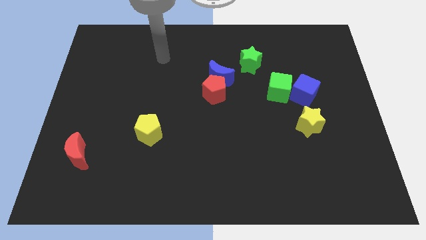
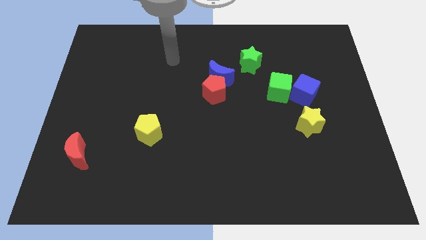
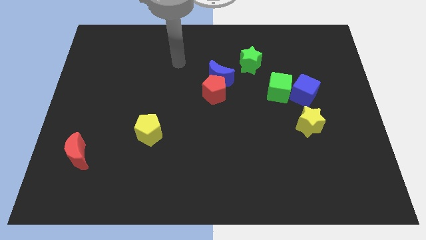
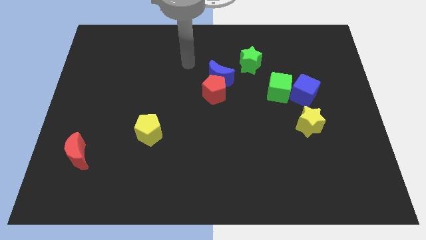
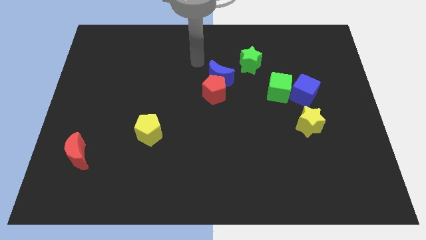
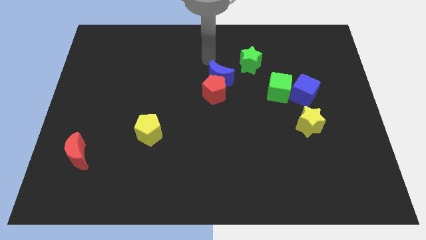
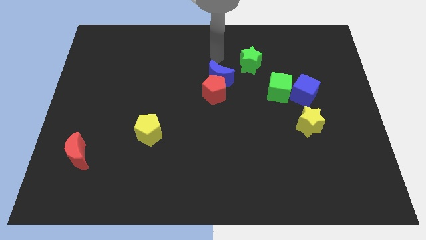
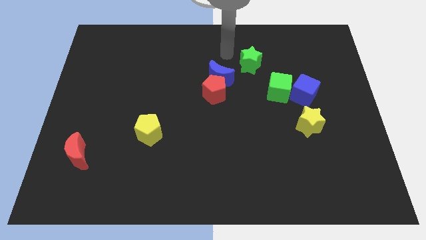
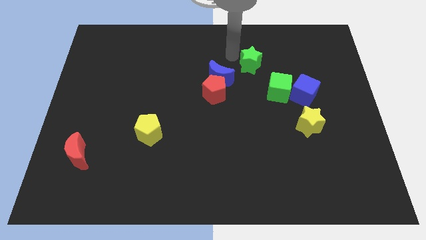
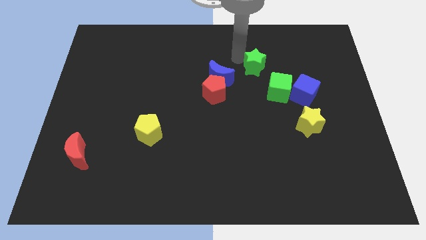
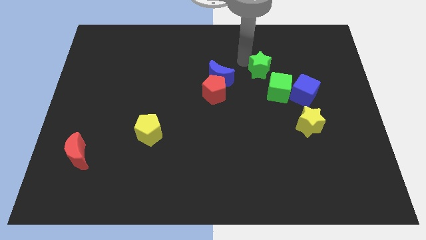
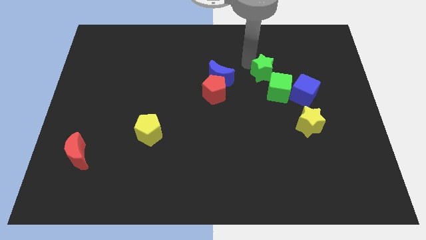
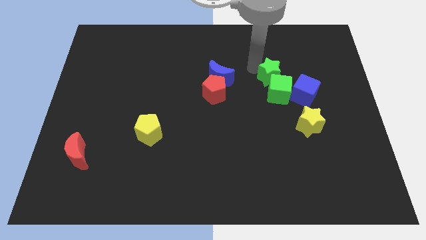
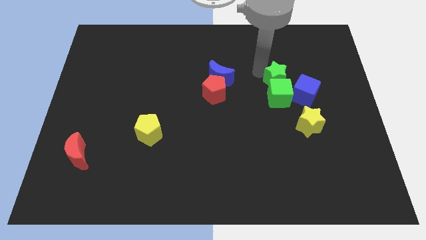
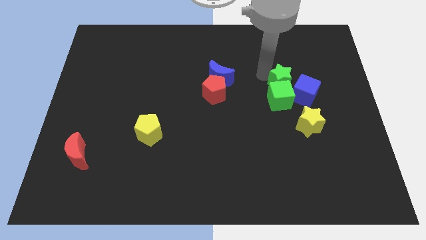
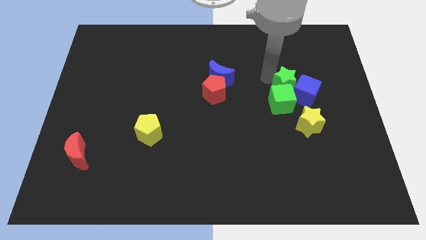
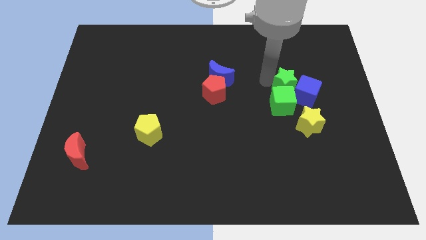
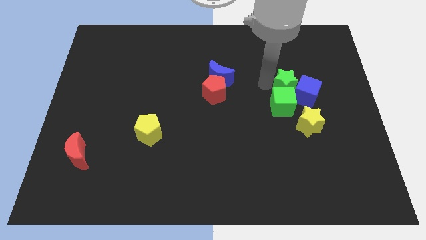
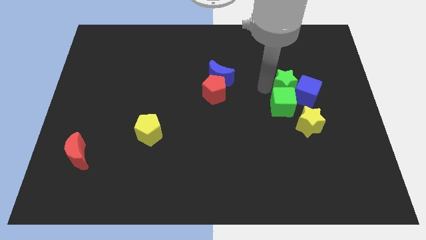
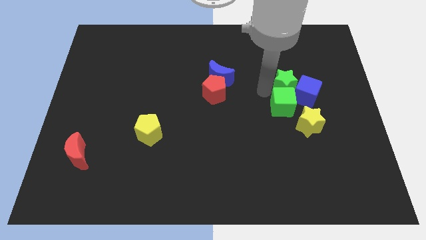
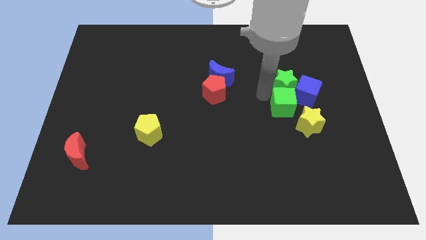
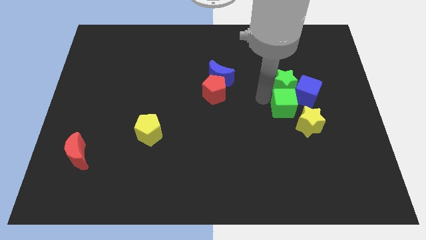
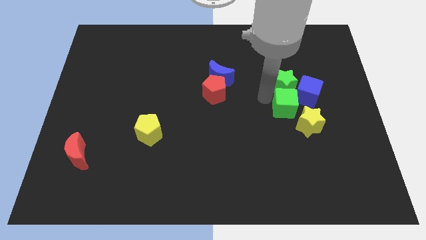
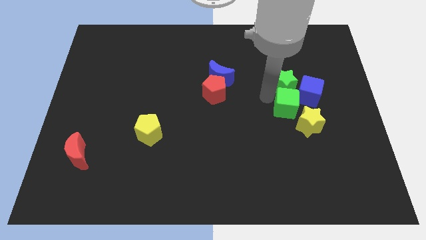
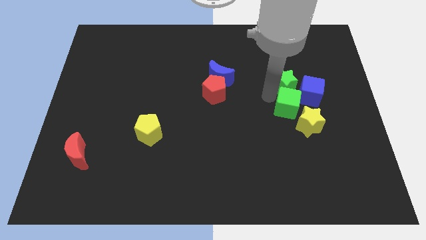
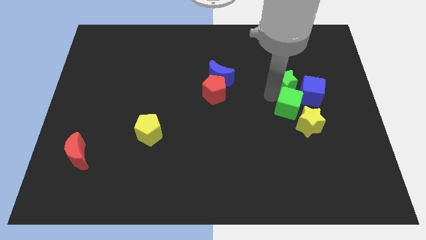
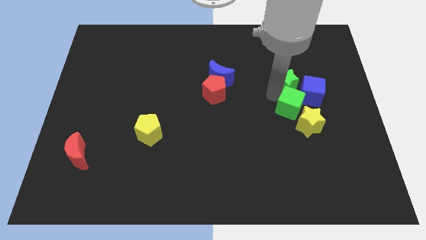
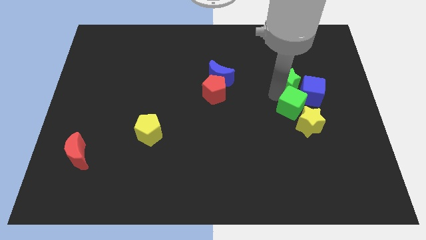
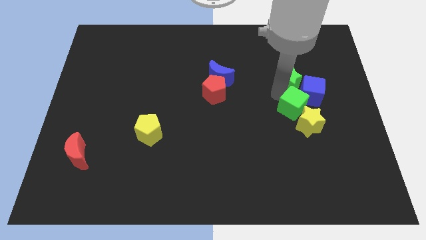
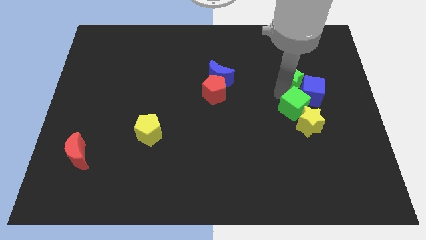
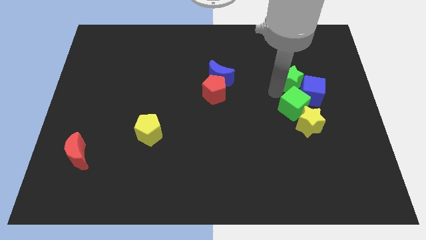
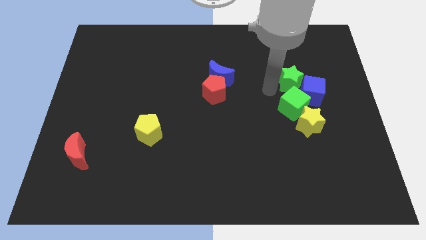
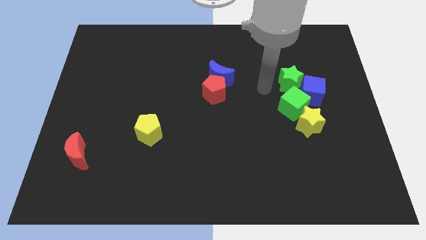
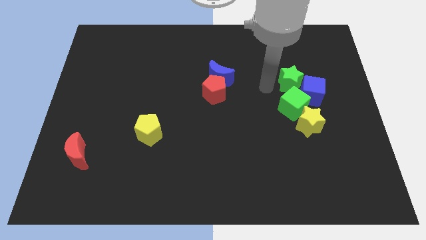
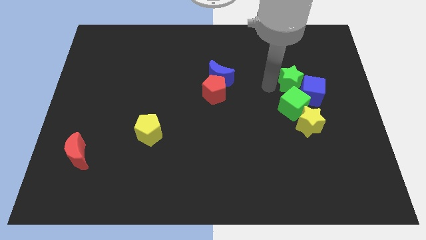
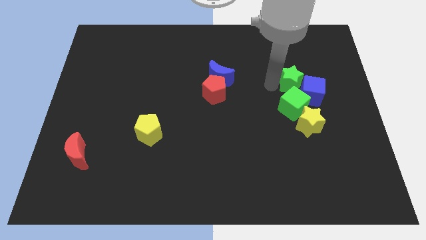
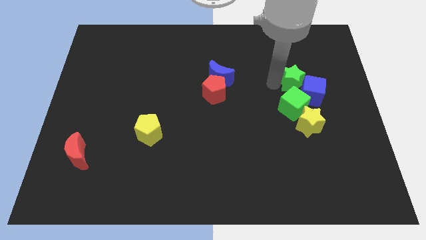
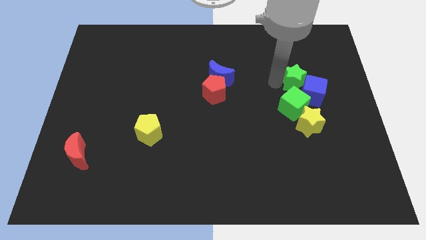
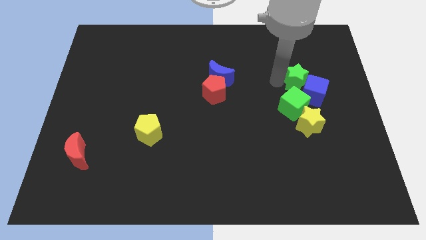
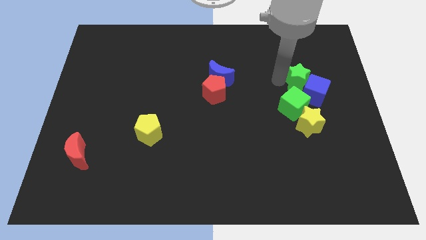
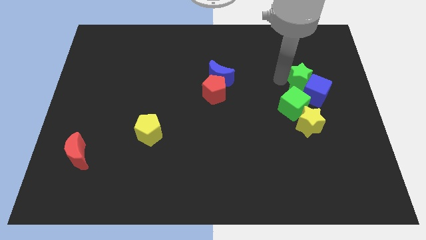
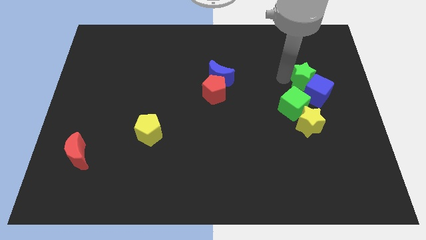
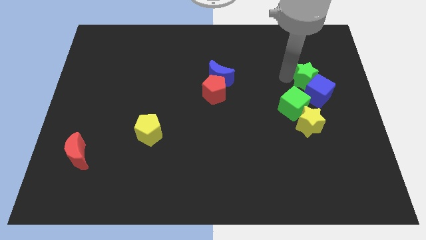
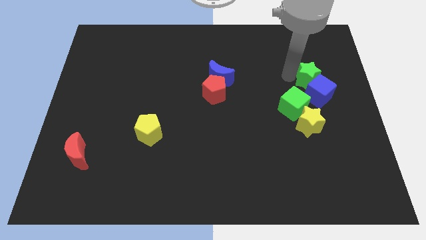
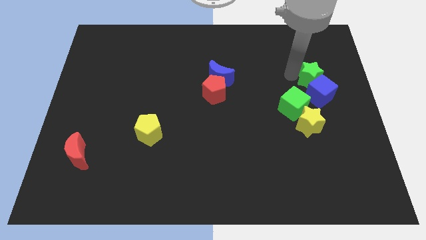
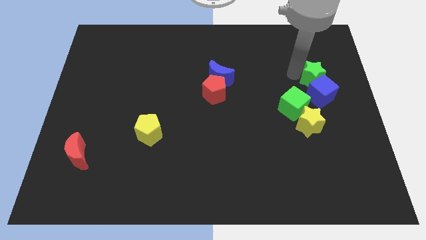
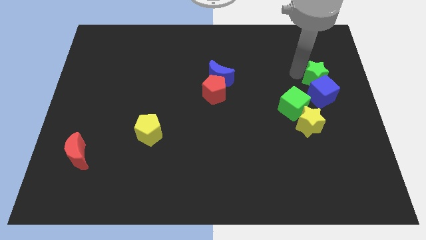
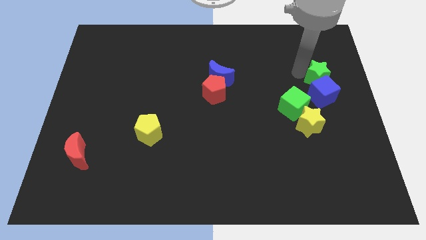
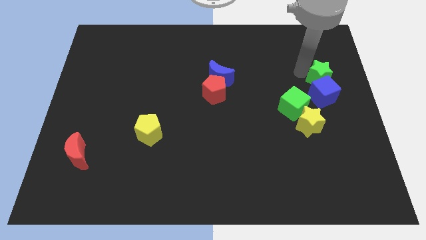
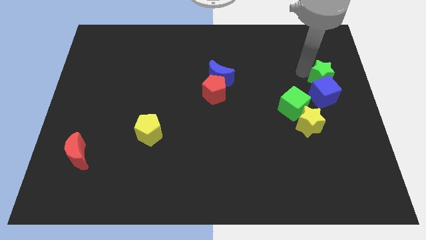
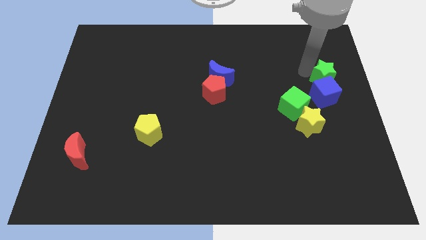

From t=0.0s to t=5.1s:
push the green star to the right side of the board

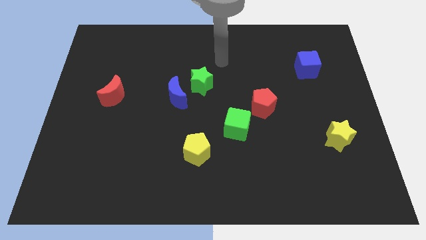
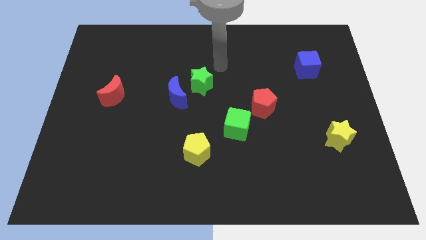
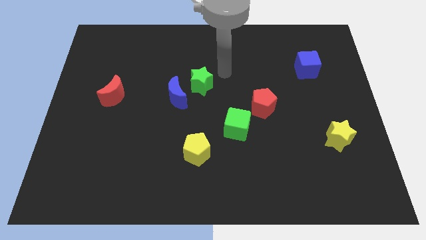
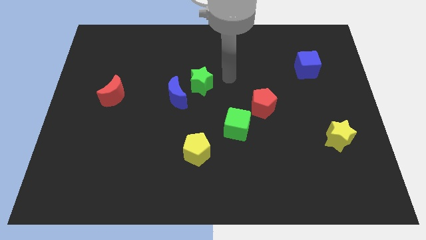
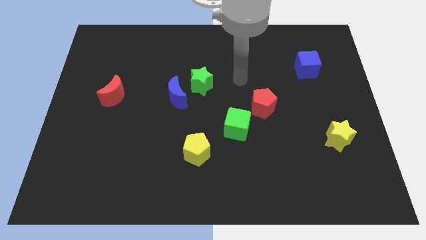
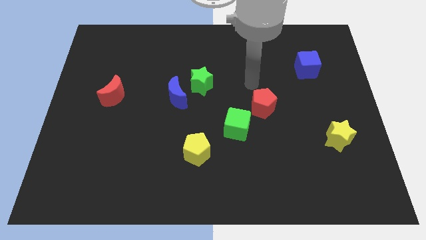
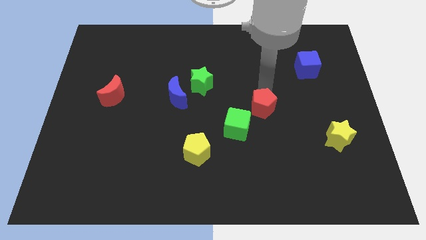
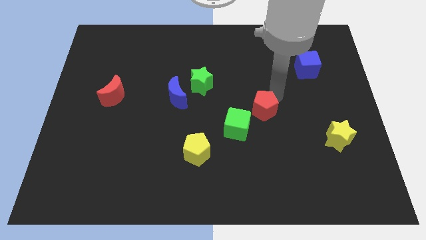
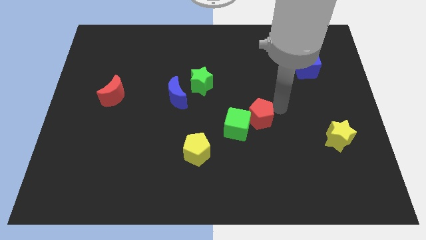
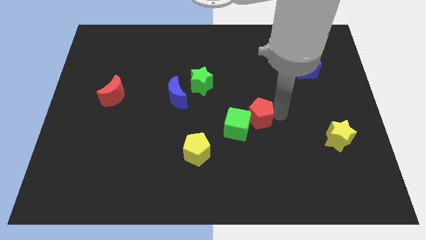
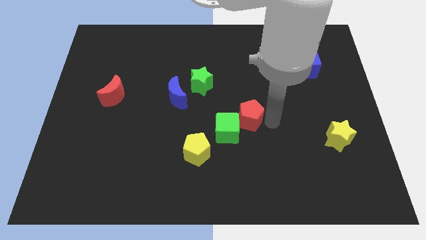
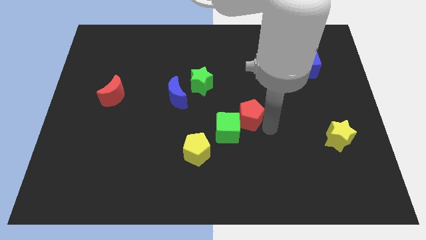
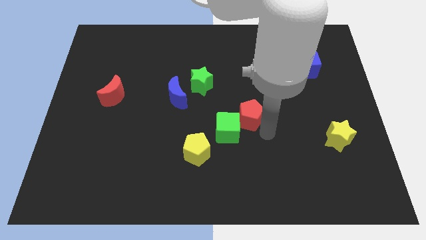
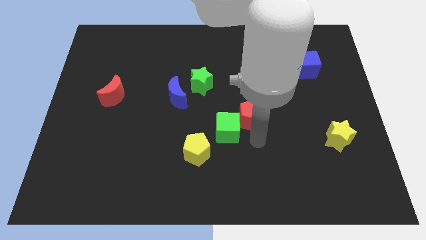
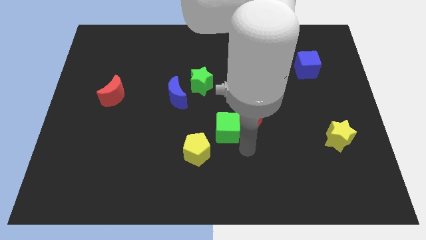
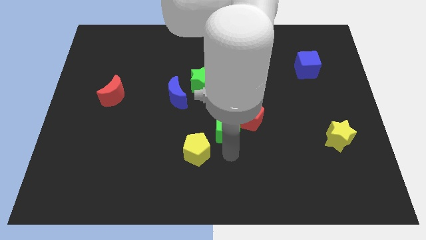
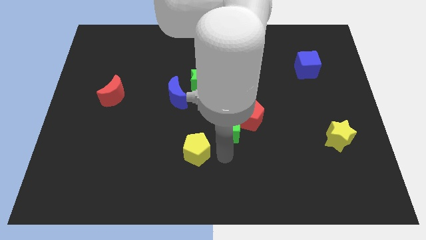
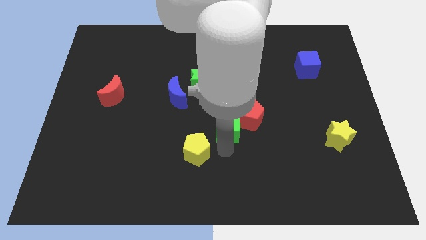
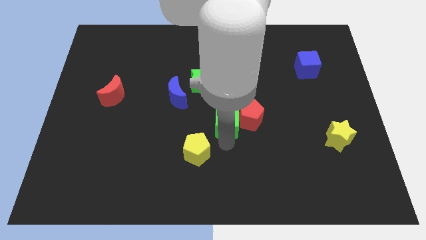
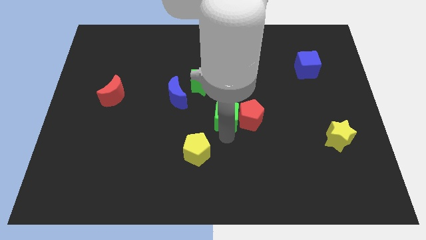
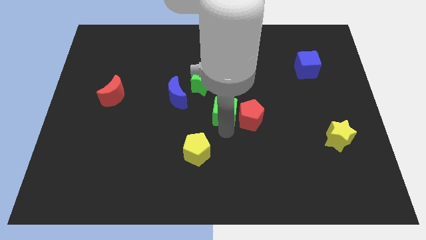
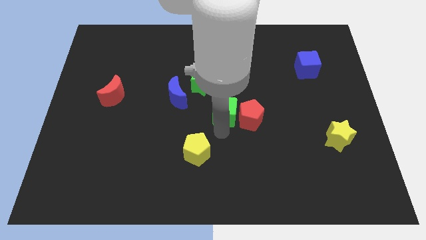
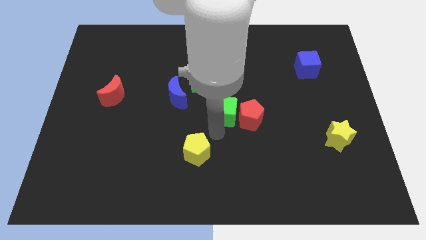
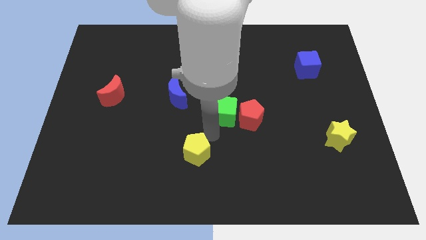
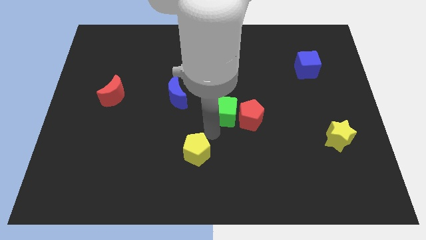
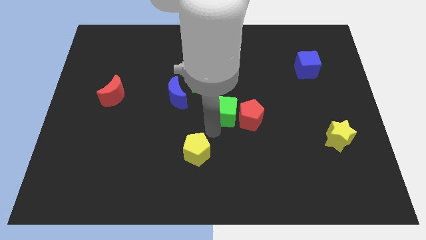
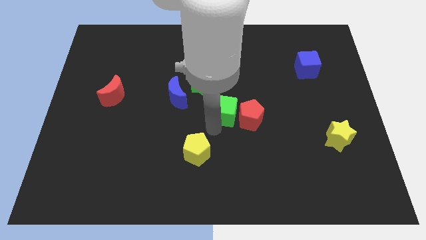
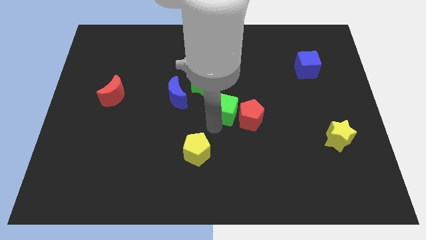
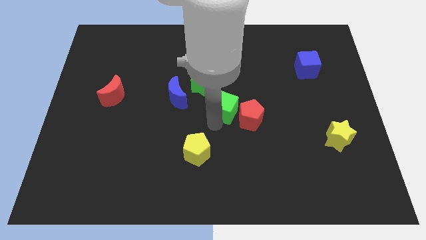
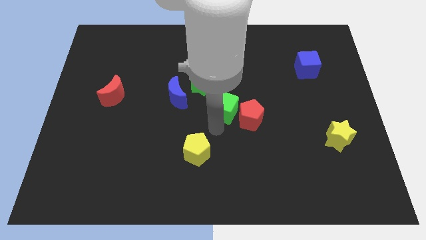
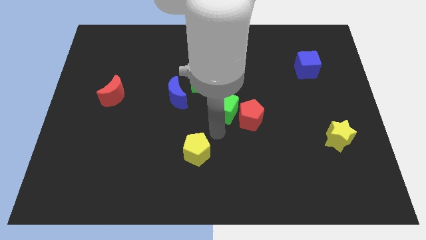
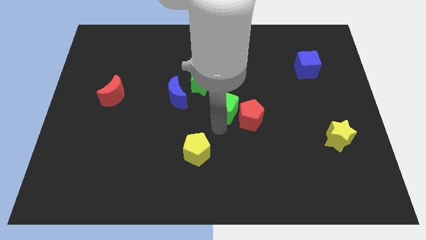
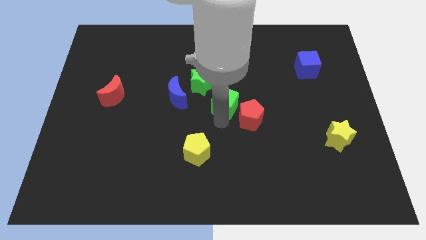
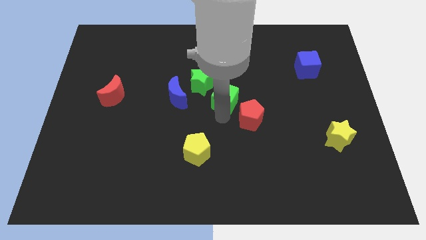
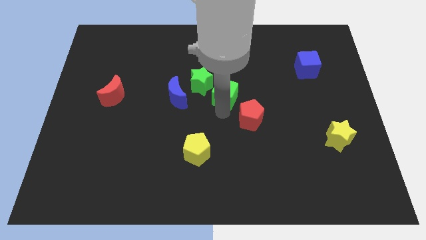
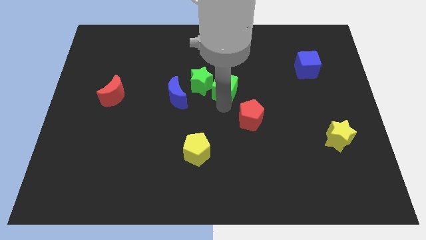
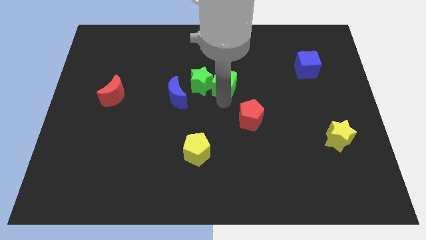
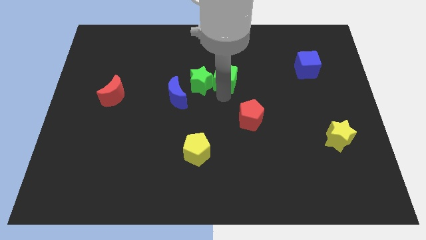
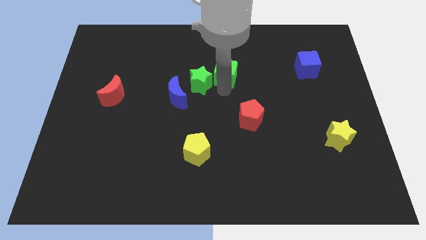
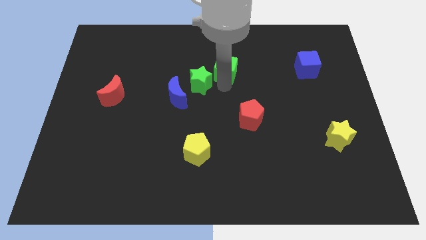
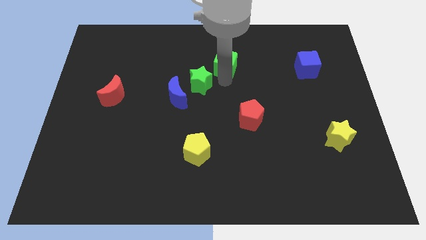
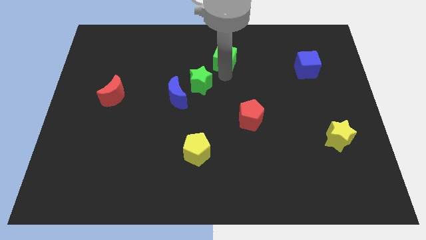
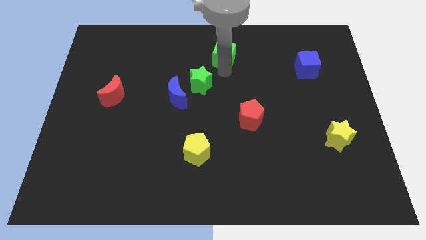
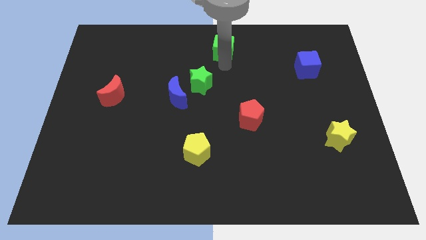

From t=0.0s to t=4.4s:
put the green cube to the top
